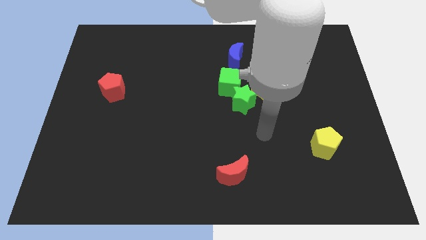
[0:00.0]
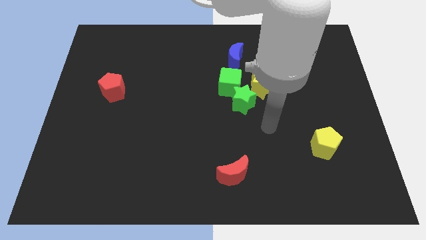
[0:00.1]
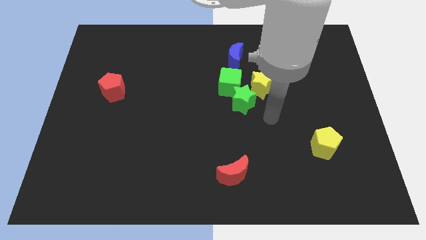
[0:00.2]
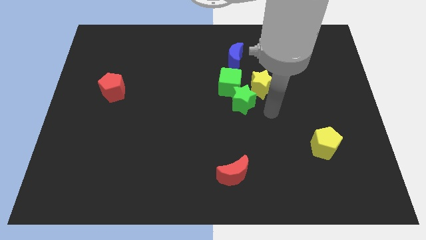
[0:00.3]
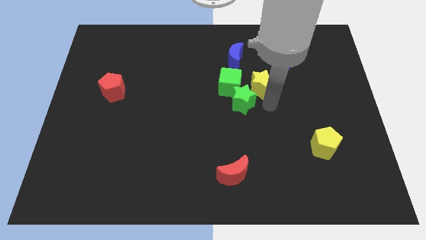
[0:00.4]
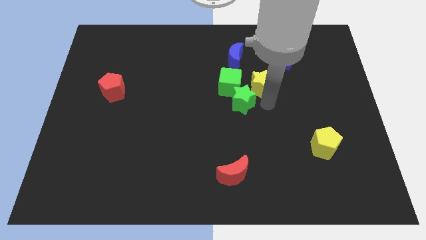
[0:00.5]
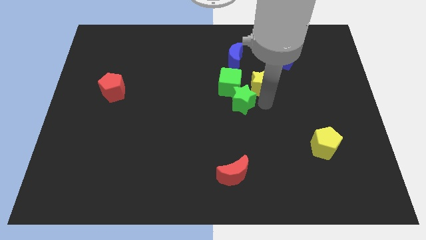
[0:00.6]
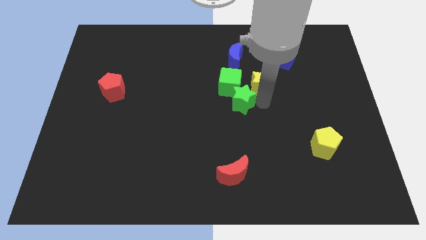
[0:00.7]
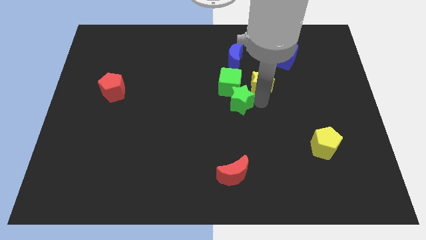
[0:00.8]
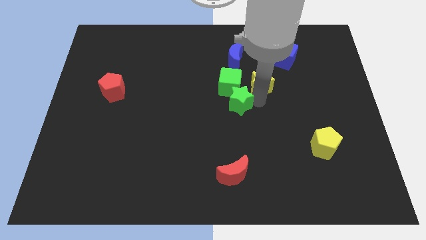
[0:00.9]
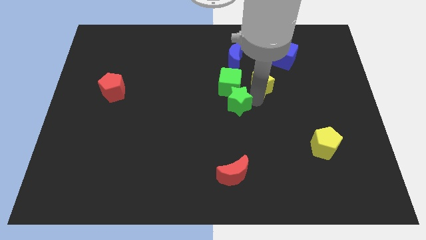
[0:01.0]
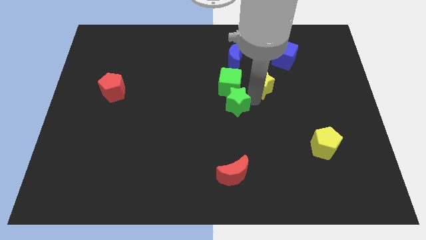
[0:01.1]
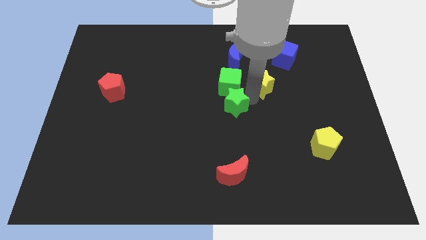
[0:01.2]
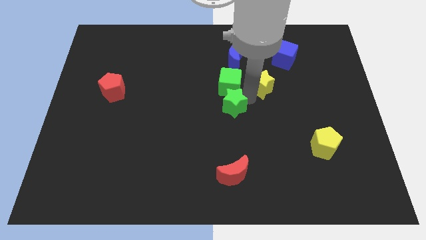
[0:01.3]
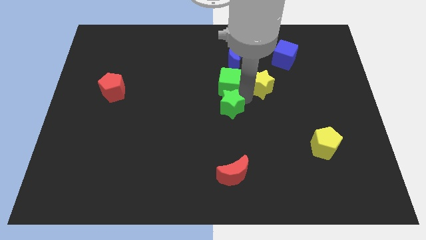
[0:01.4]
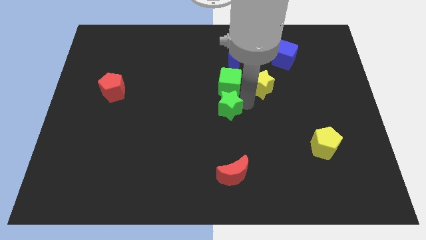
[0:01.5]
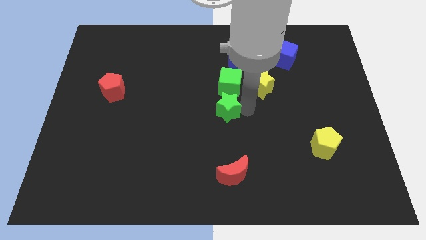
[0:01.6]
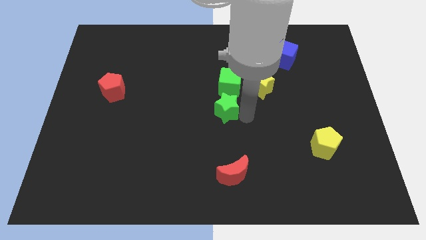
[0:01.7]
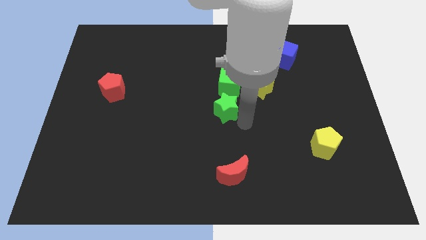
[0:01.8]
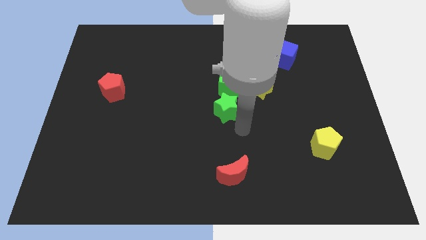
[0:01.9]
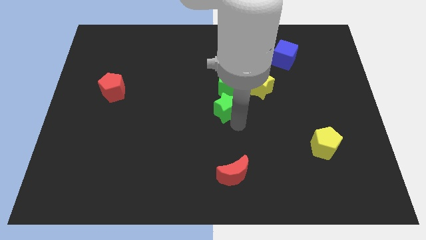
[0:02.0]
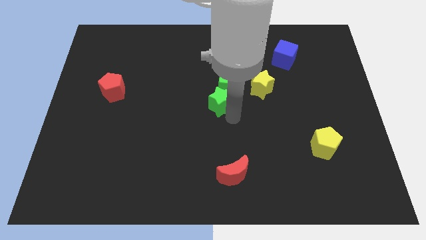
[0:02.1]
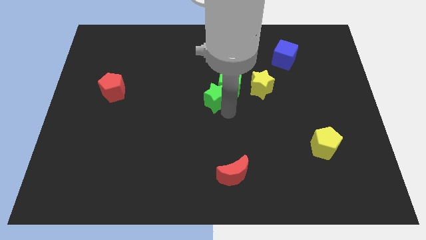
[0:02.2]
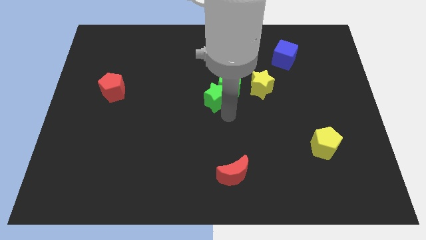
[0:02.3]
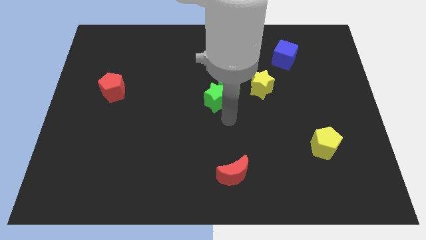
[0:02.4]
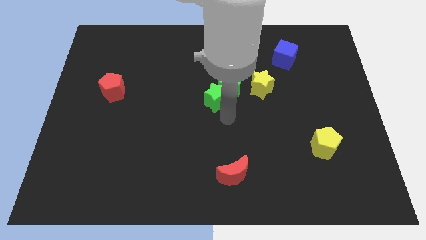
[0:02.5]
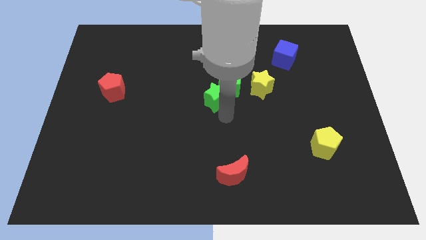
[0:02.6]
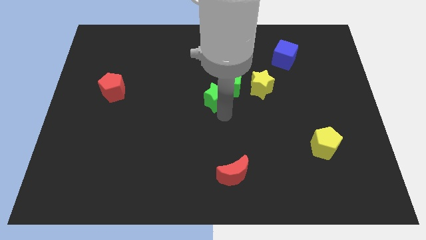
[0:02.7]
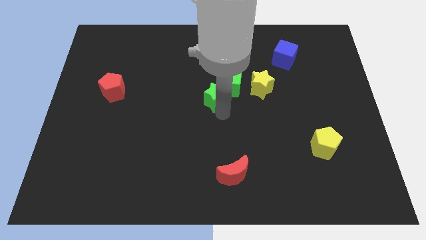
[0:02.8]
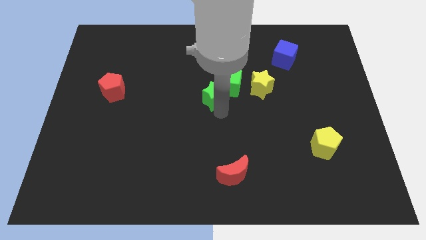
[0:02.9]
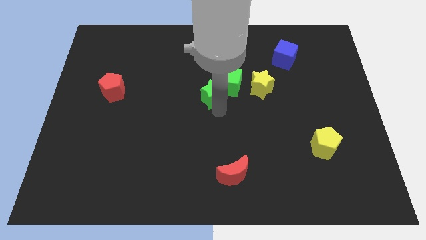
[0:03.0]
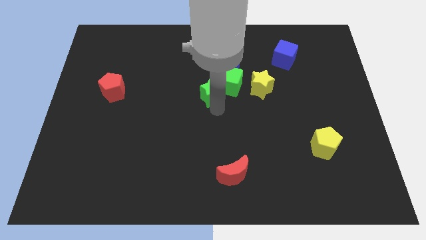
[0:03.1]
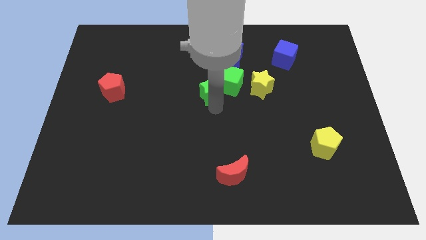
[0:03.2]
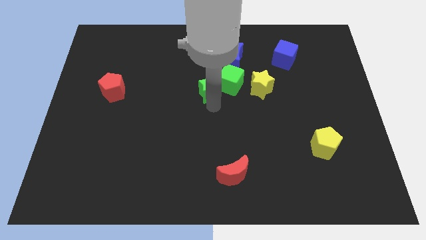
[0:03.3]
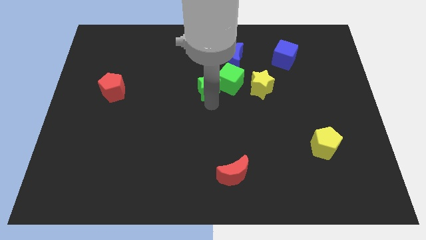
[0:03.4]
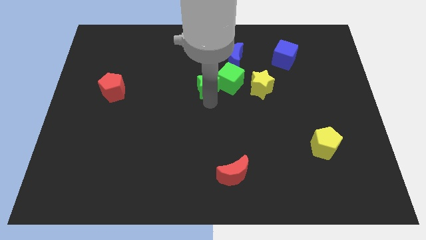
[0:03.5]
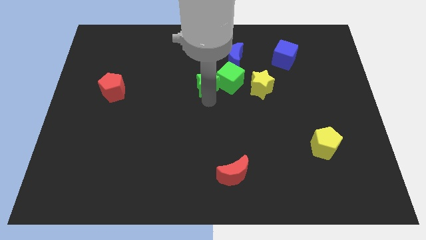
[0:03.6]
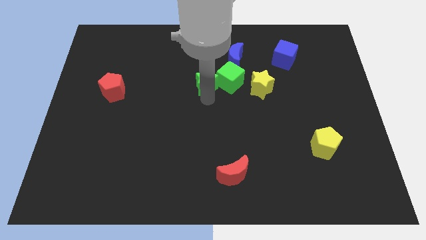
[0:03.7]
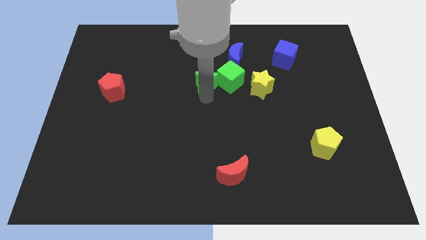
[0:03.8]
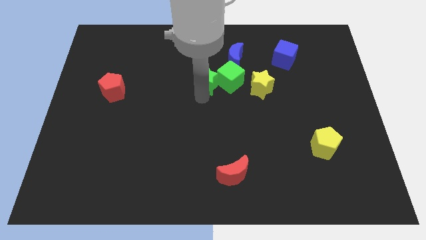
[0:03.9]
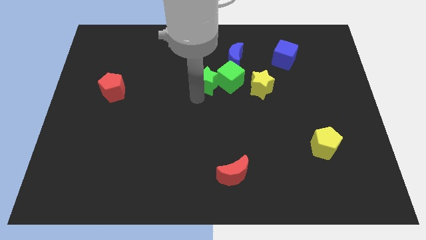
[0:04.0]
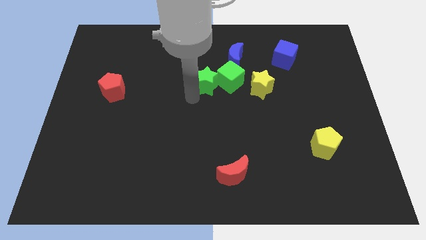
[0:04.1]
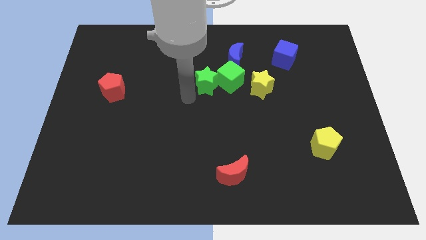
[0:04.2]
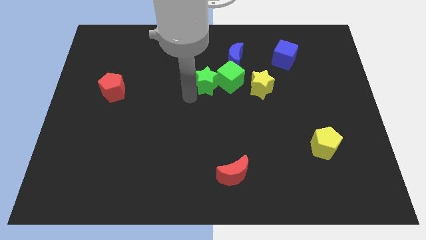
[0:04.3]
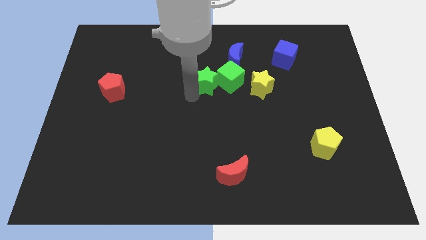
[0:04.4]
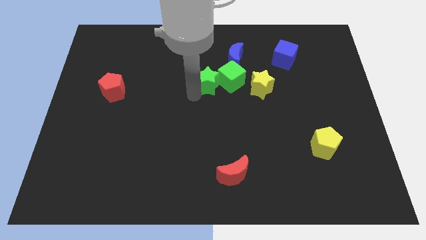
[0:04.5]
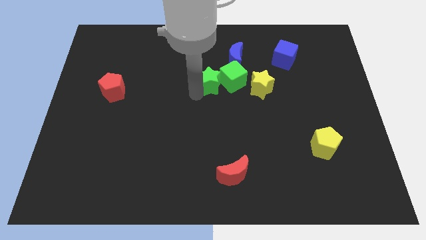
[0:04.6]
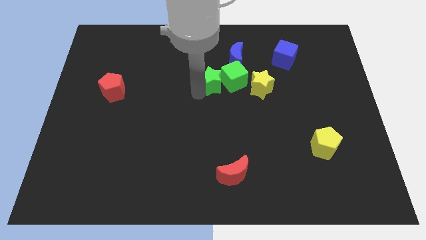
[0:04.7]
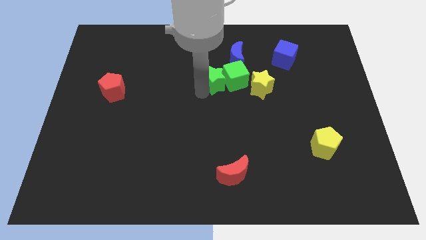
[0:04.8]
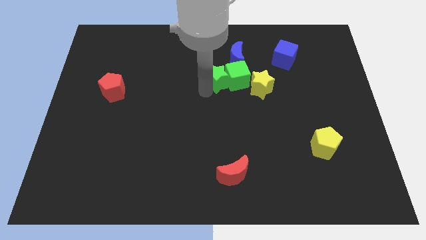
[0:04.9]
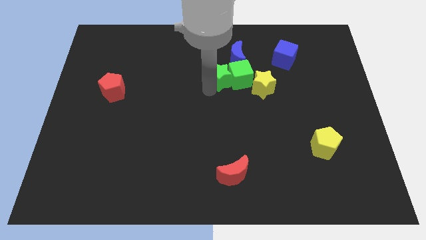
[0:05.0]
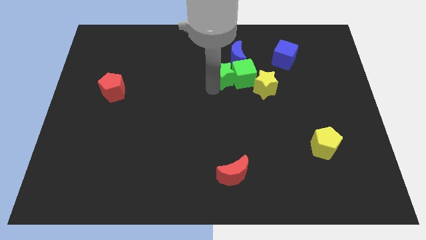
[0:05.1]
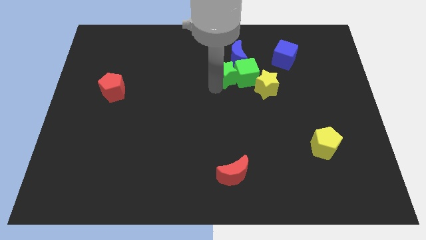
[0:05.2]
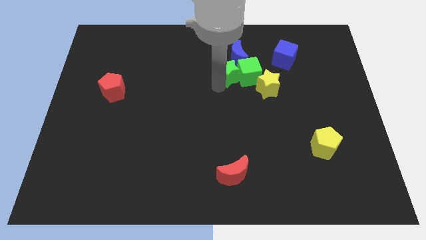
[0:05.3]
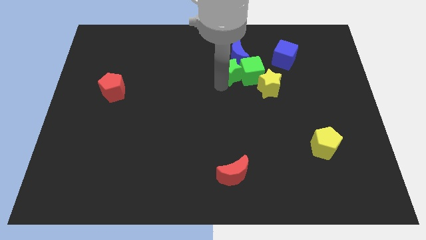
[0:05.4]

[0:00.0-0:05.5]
move the green star close to the blue moon

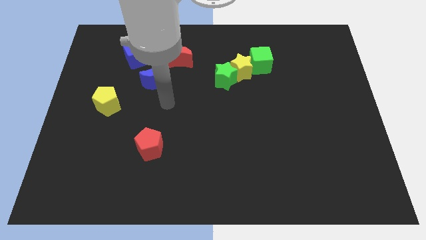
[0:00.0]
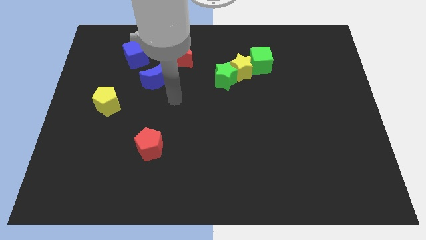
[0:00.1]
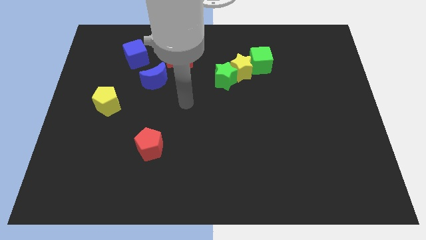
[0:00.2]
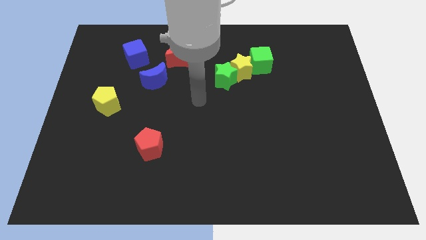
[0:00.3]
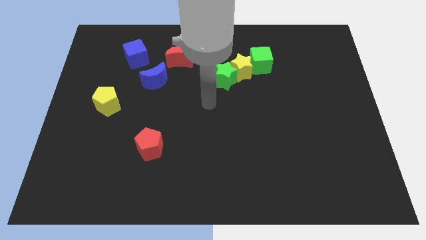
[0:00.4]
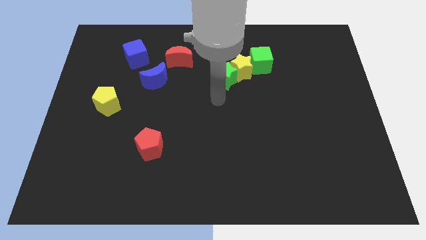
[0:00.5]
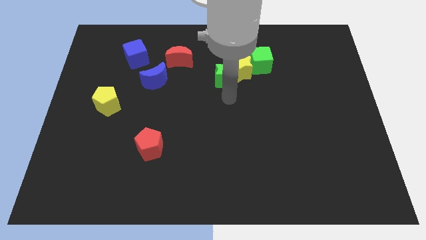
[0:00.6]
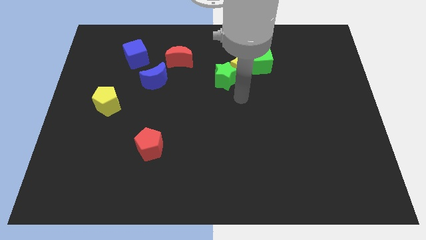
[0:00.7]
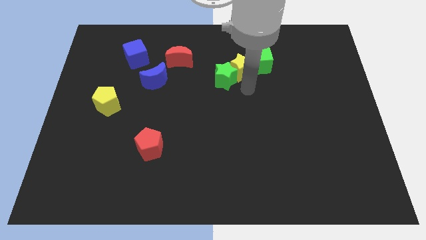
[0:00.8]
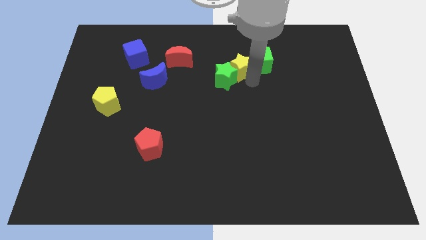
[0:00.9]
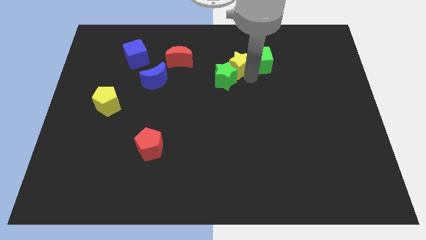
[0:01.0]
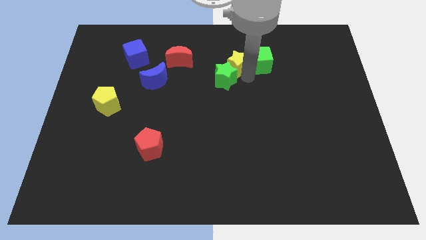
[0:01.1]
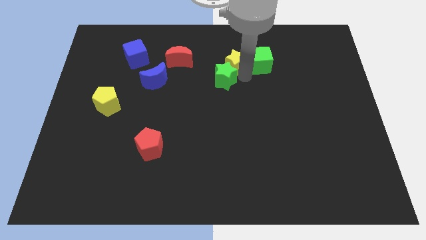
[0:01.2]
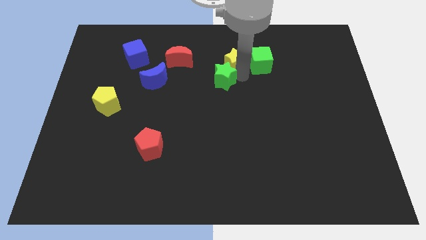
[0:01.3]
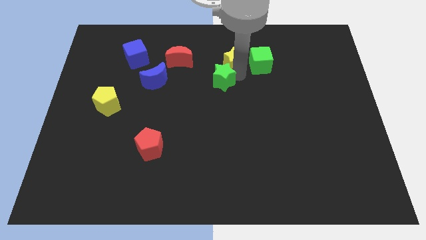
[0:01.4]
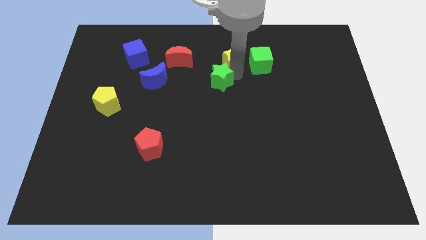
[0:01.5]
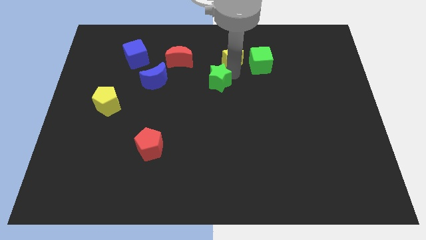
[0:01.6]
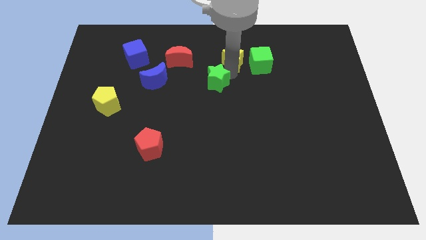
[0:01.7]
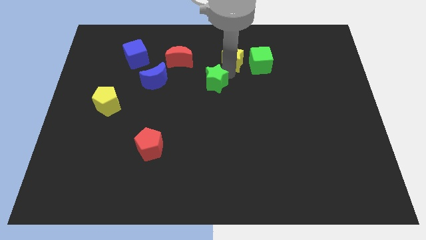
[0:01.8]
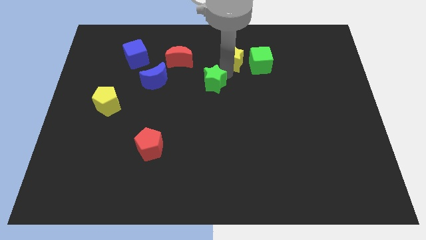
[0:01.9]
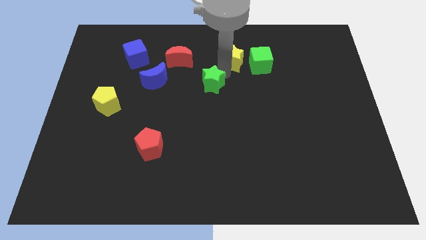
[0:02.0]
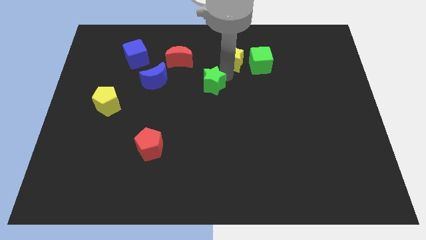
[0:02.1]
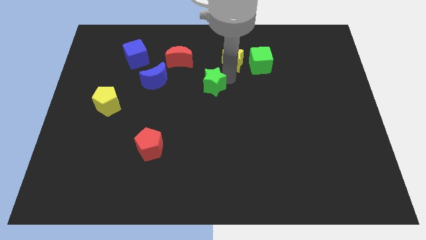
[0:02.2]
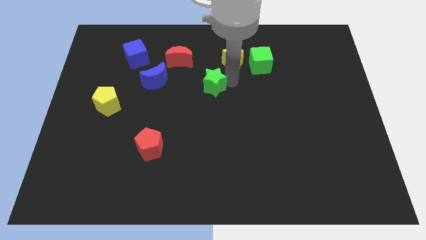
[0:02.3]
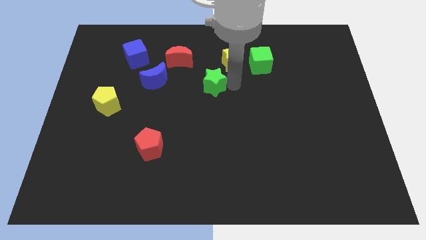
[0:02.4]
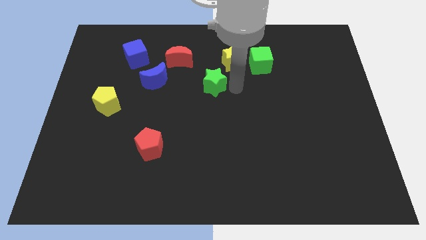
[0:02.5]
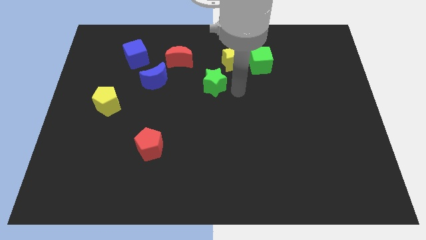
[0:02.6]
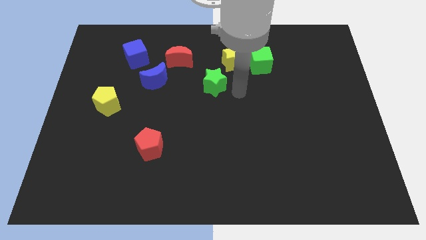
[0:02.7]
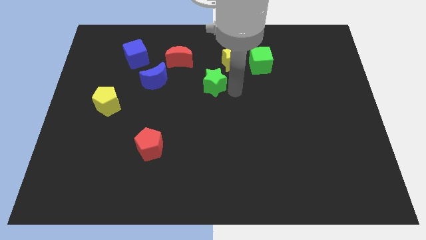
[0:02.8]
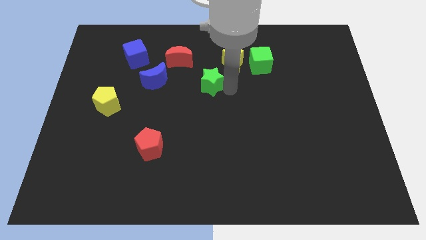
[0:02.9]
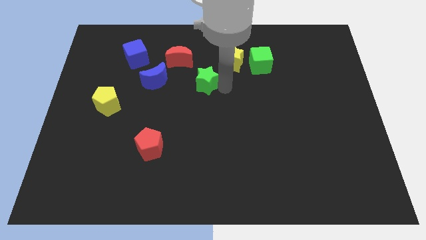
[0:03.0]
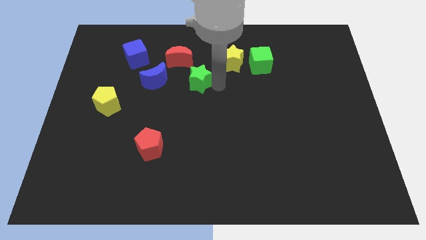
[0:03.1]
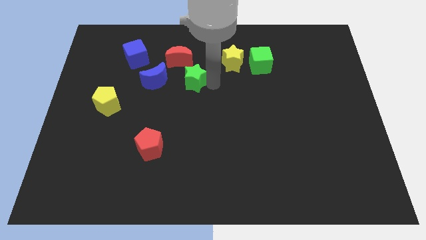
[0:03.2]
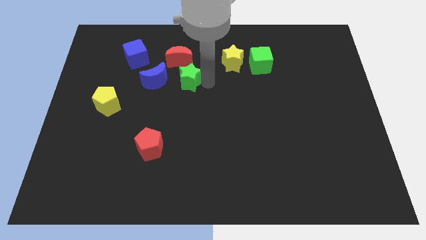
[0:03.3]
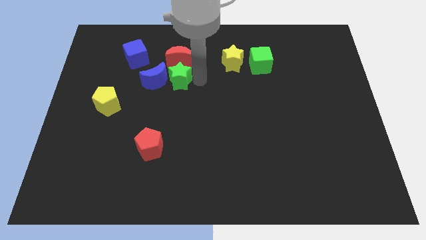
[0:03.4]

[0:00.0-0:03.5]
push the green star towards the blue moon
